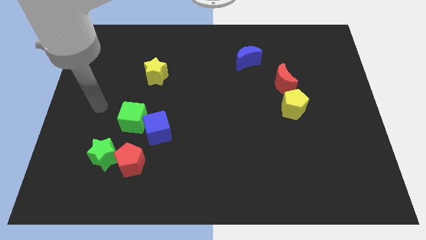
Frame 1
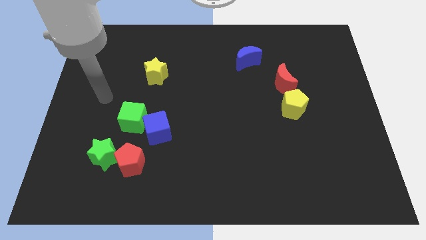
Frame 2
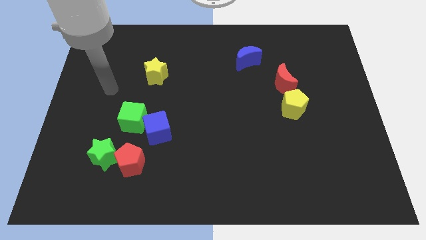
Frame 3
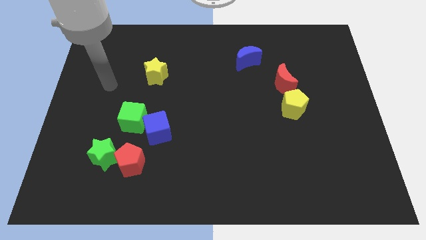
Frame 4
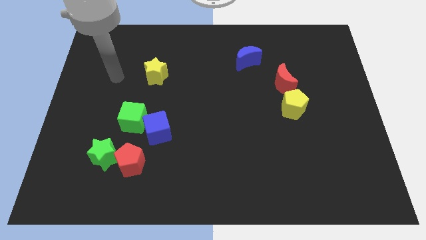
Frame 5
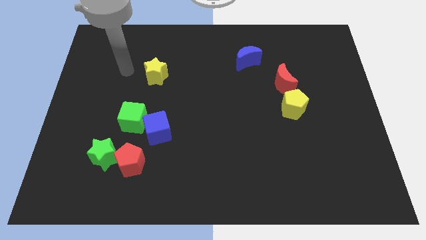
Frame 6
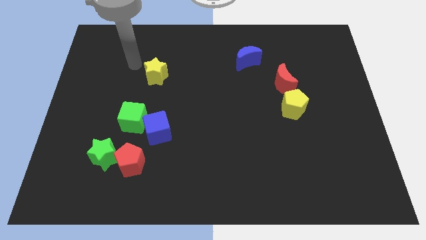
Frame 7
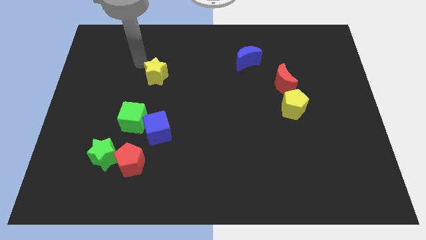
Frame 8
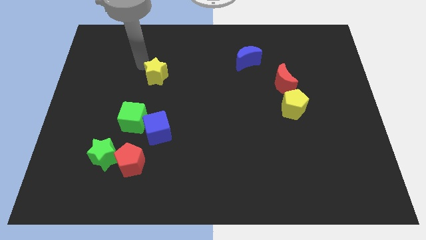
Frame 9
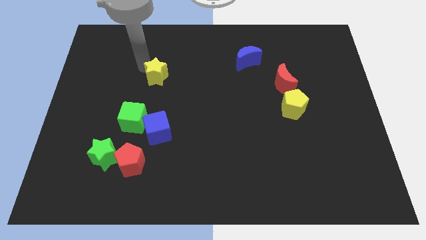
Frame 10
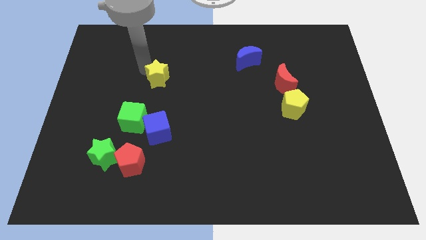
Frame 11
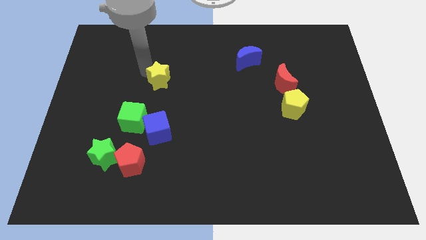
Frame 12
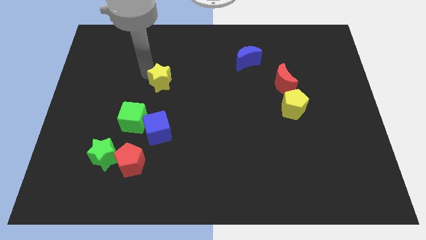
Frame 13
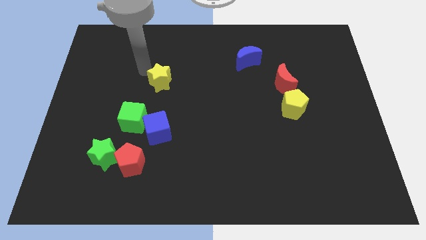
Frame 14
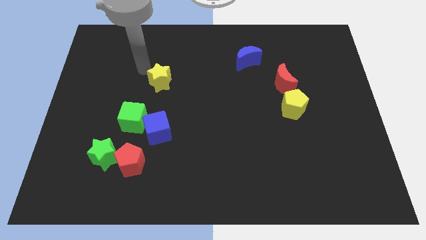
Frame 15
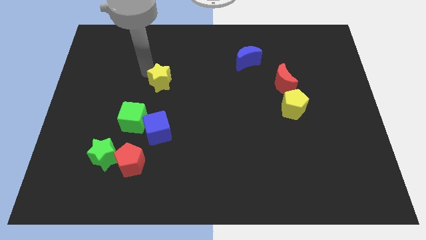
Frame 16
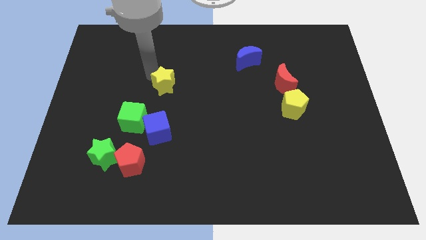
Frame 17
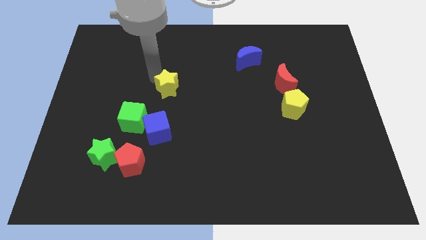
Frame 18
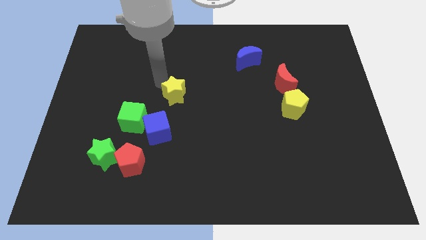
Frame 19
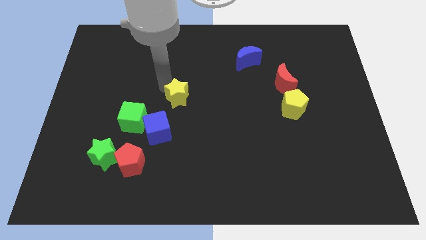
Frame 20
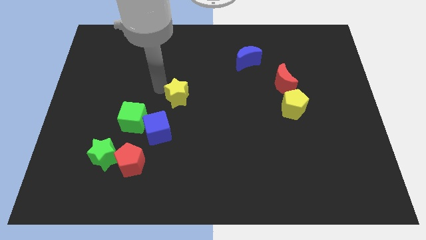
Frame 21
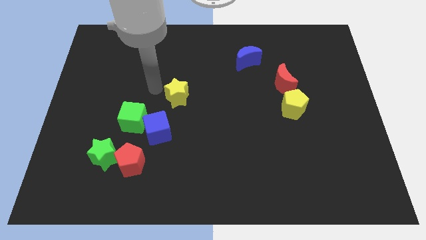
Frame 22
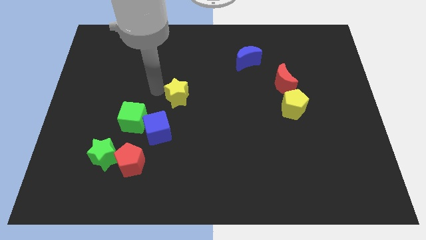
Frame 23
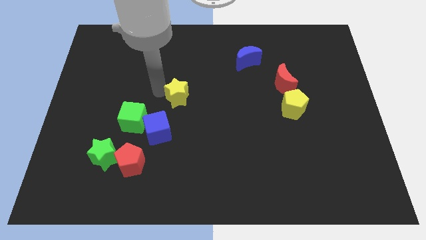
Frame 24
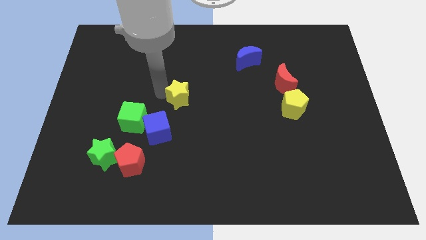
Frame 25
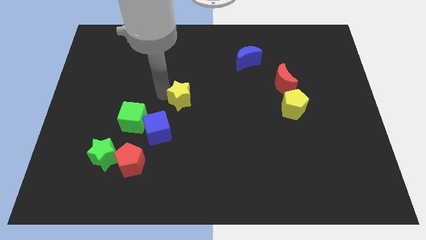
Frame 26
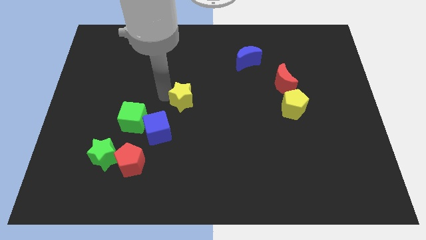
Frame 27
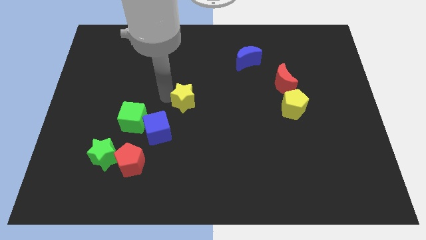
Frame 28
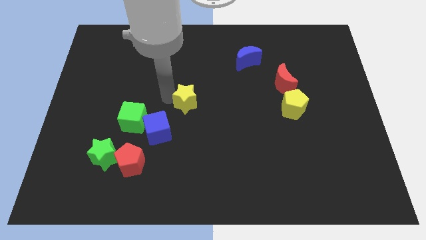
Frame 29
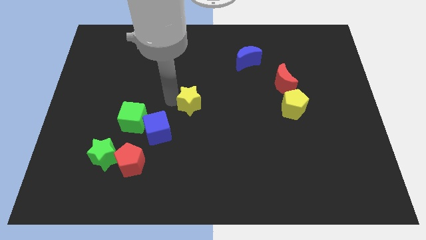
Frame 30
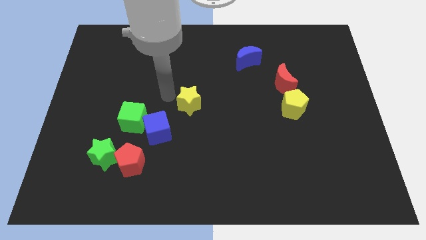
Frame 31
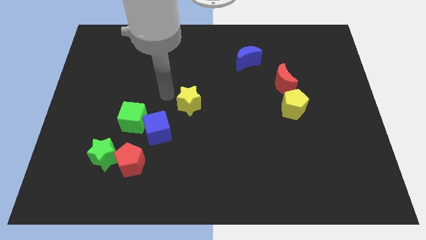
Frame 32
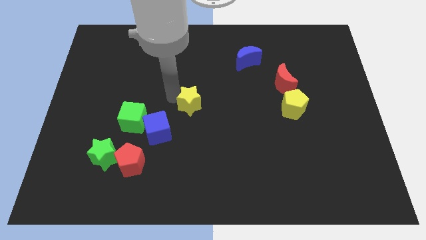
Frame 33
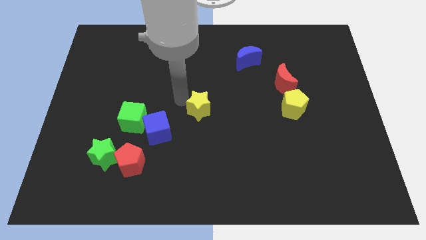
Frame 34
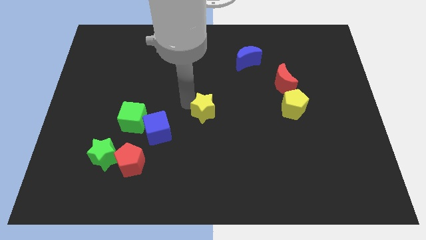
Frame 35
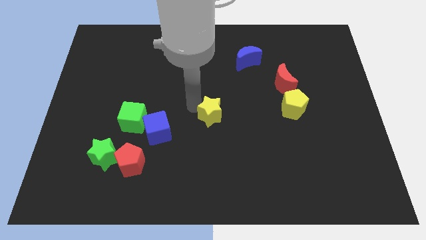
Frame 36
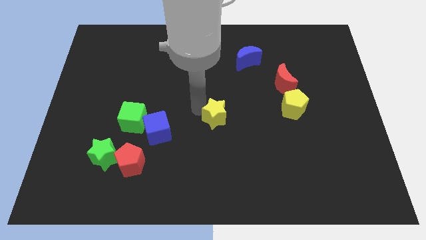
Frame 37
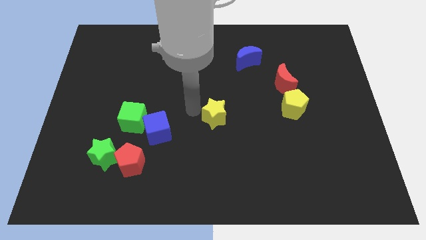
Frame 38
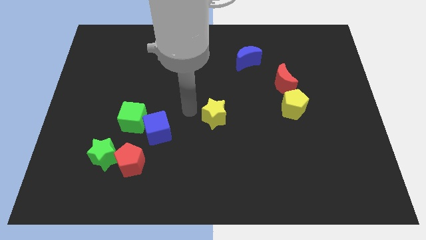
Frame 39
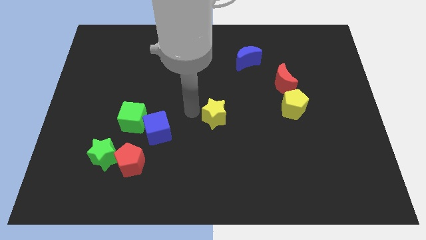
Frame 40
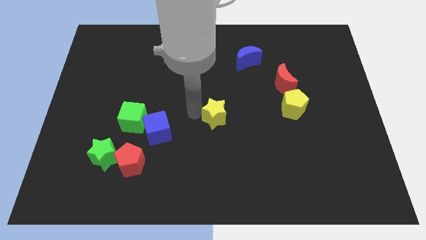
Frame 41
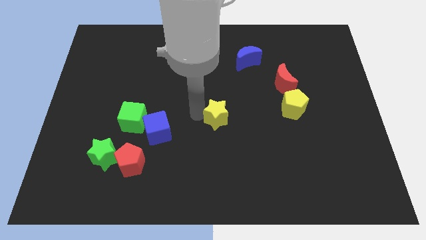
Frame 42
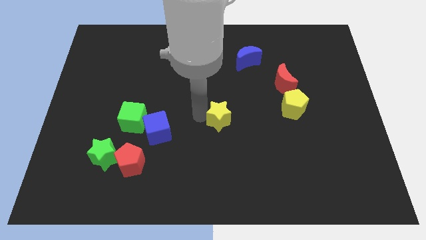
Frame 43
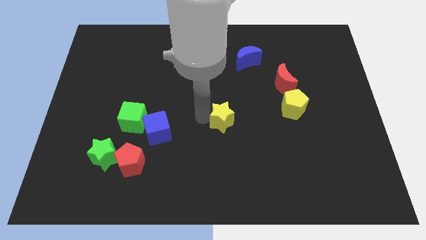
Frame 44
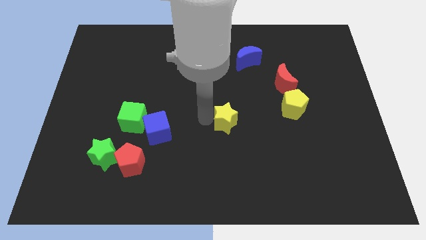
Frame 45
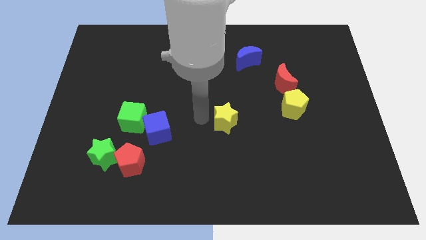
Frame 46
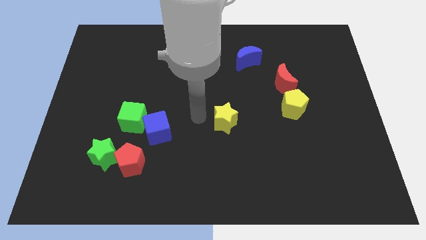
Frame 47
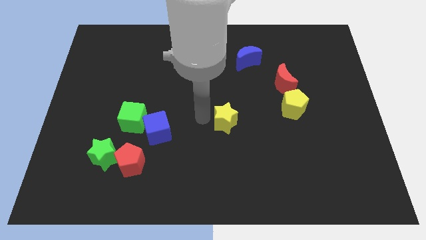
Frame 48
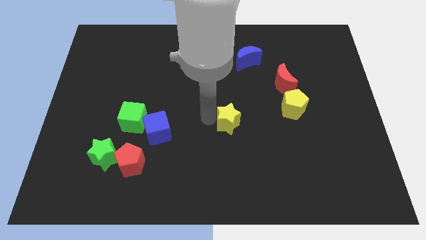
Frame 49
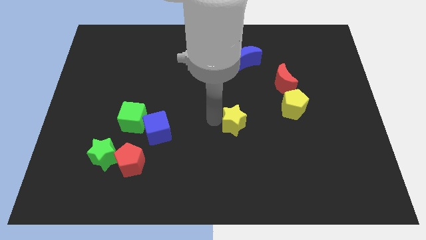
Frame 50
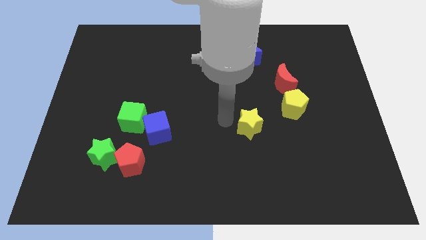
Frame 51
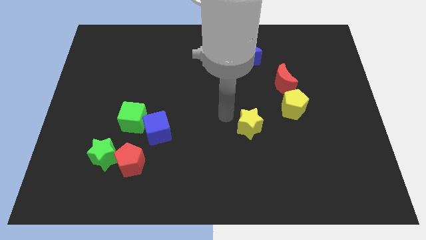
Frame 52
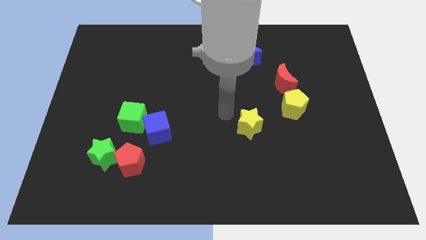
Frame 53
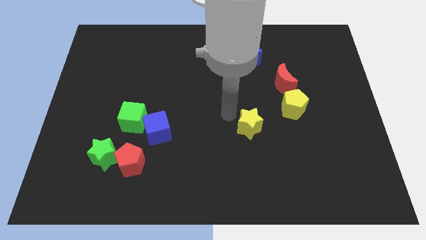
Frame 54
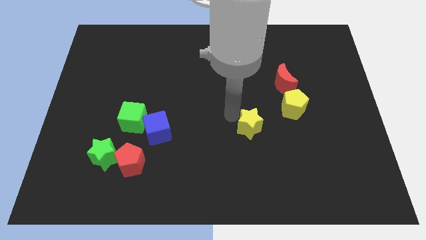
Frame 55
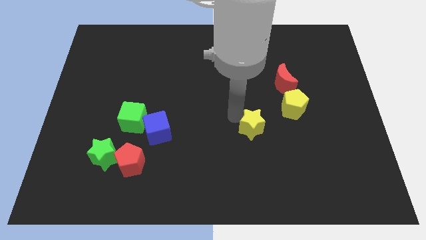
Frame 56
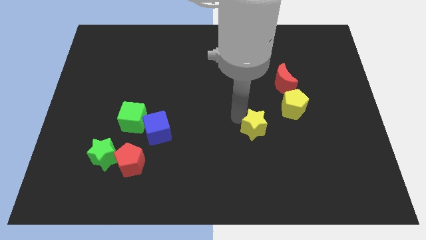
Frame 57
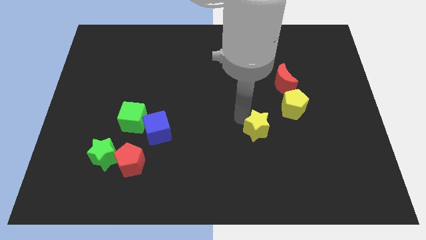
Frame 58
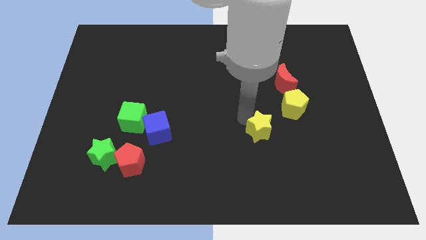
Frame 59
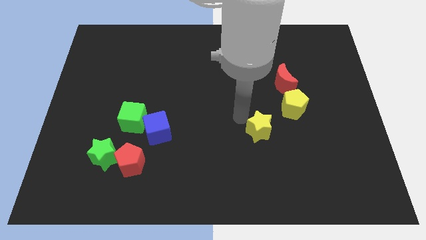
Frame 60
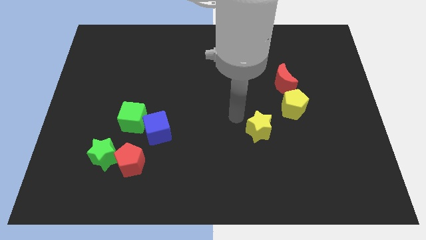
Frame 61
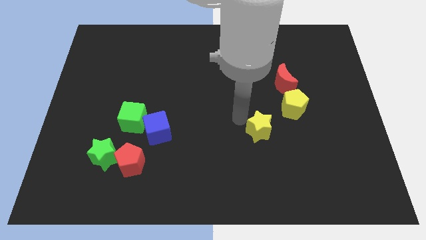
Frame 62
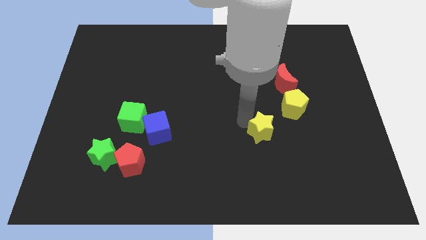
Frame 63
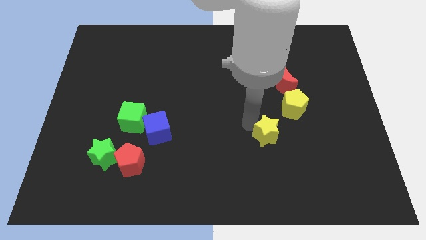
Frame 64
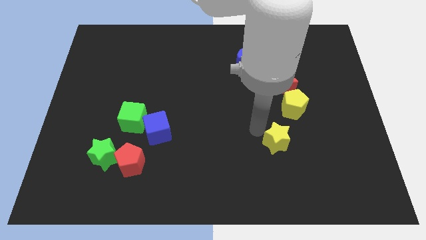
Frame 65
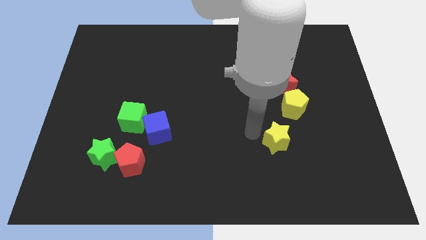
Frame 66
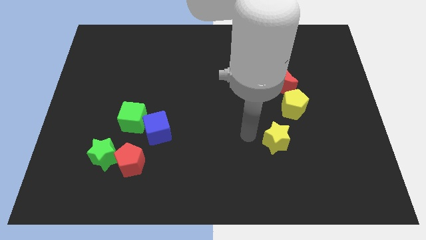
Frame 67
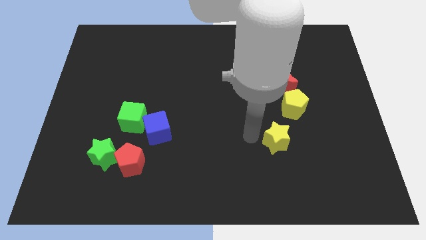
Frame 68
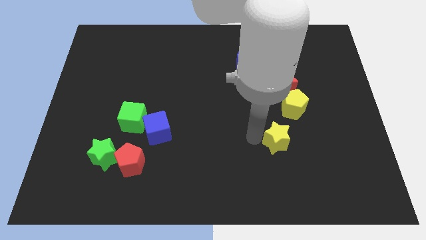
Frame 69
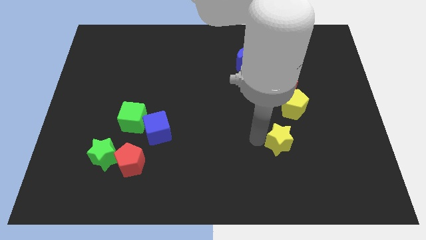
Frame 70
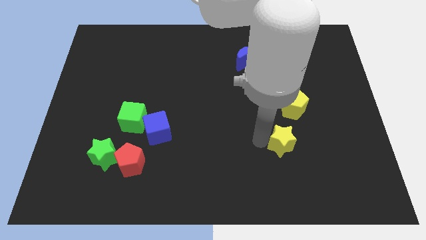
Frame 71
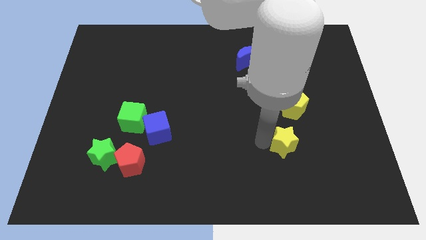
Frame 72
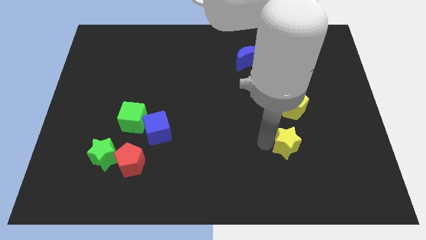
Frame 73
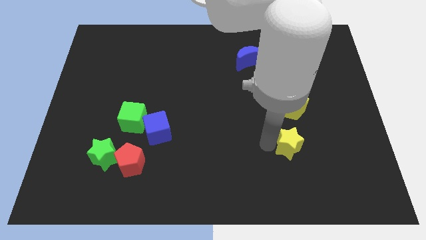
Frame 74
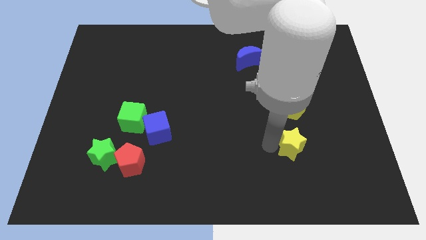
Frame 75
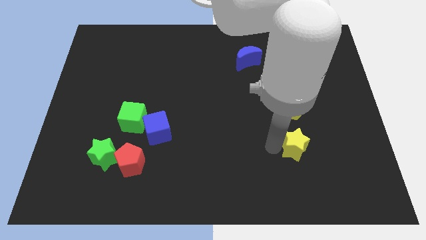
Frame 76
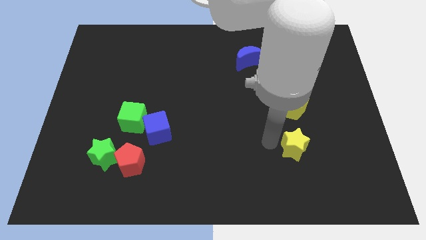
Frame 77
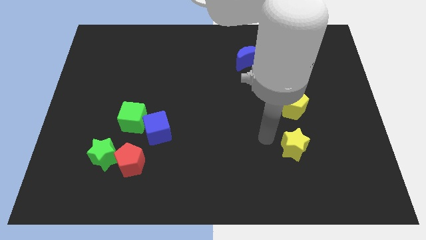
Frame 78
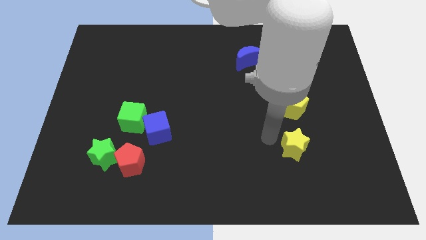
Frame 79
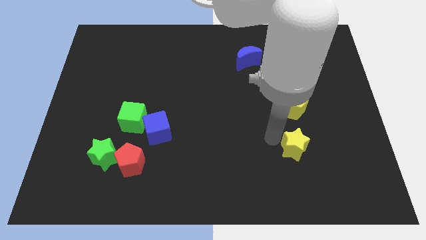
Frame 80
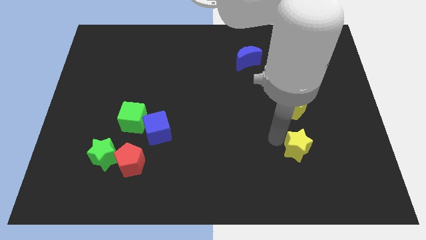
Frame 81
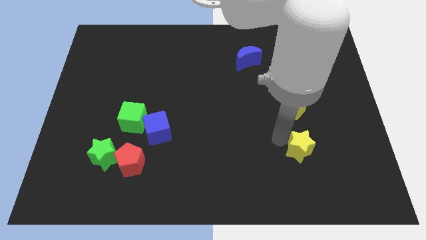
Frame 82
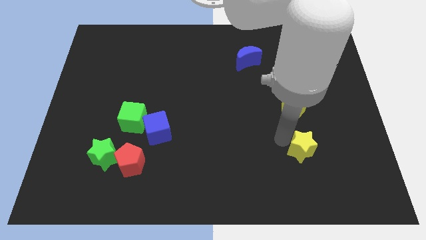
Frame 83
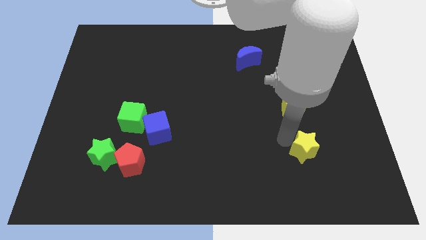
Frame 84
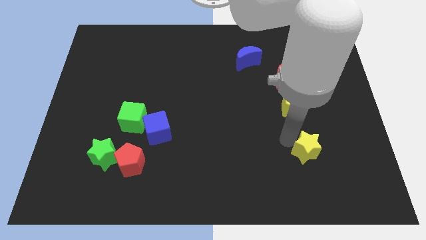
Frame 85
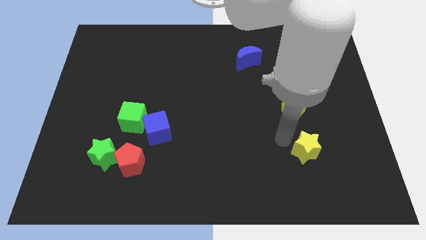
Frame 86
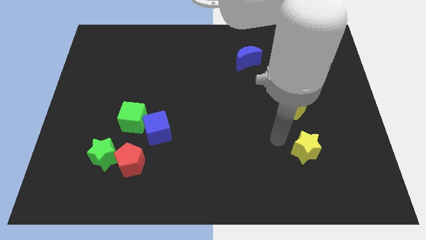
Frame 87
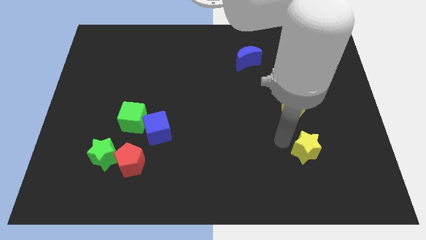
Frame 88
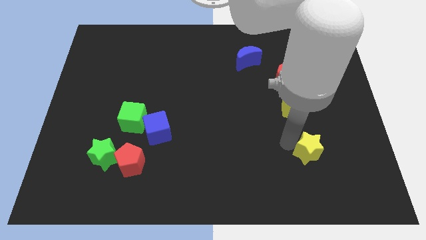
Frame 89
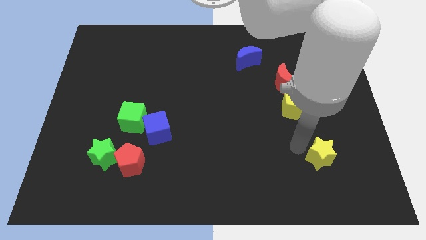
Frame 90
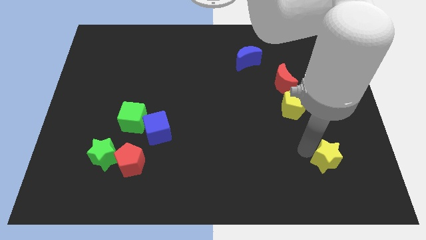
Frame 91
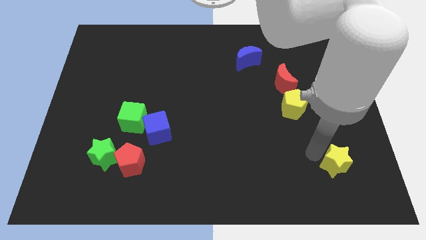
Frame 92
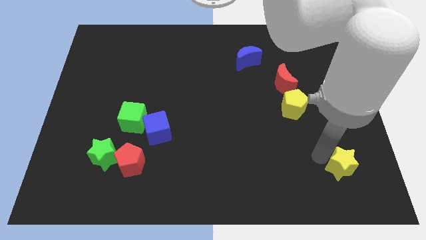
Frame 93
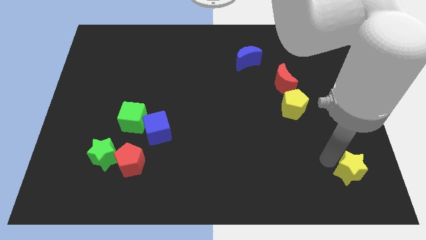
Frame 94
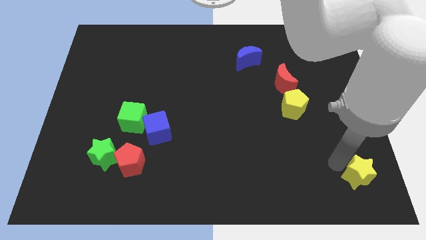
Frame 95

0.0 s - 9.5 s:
push the yellow star to the bottom right corner
